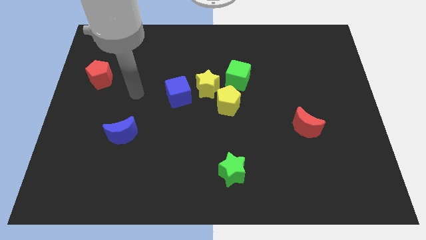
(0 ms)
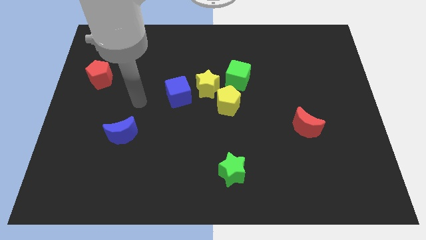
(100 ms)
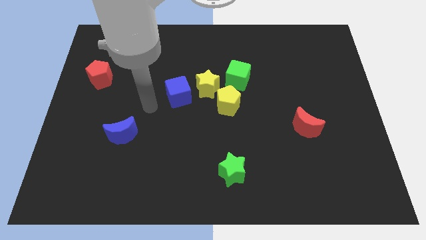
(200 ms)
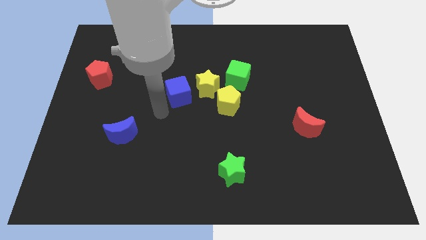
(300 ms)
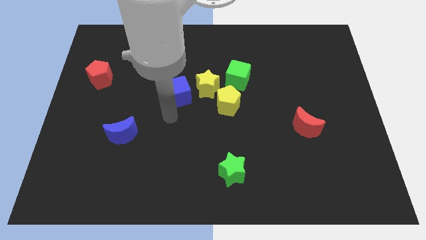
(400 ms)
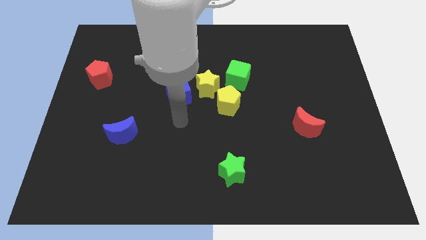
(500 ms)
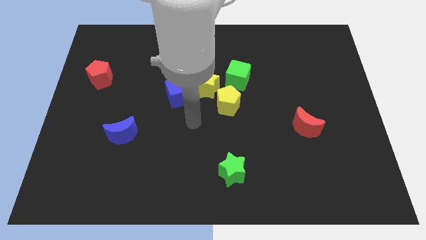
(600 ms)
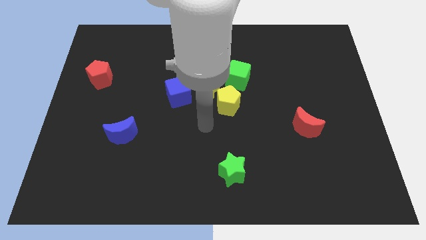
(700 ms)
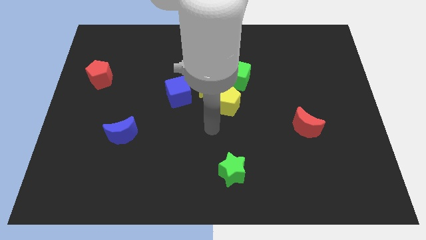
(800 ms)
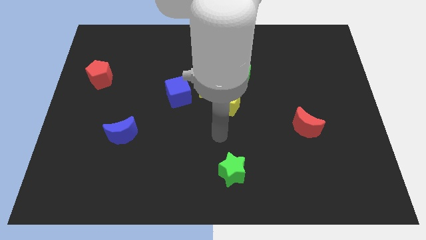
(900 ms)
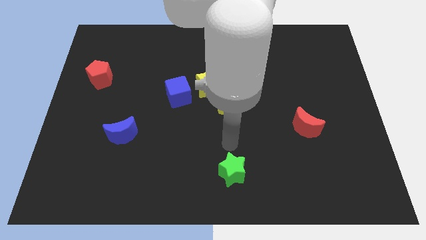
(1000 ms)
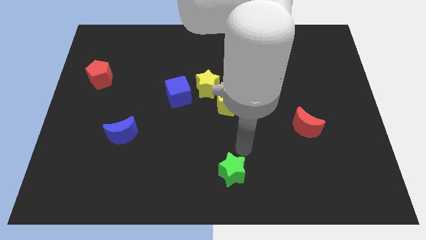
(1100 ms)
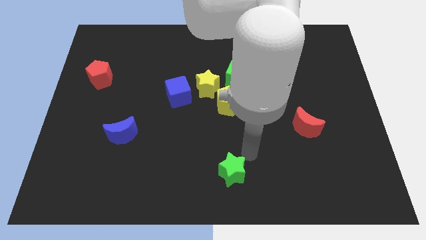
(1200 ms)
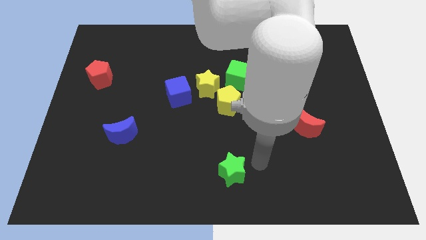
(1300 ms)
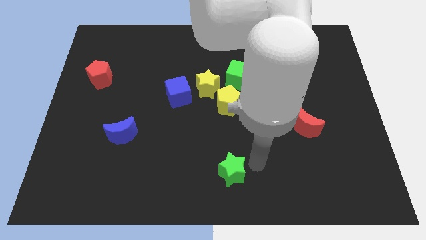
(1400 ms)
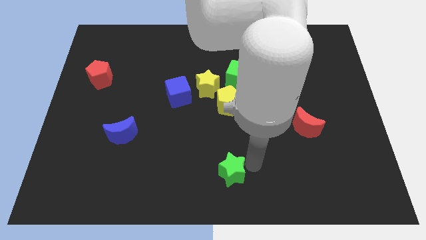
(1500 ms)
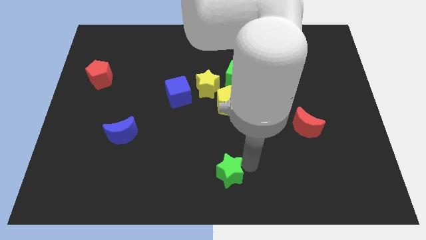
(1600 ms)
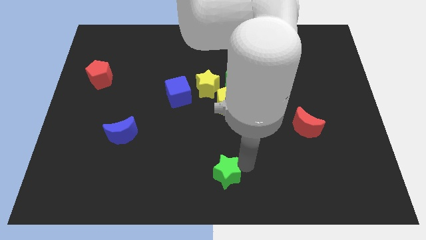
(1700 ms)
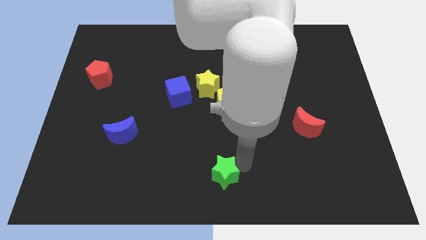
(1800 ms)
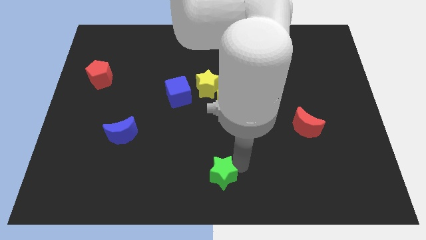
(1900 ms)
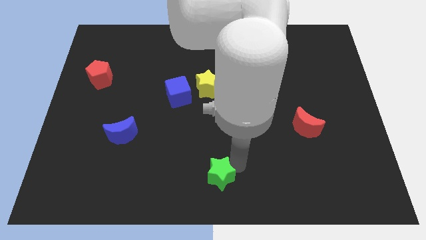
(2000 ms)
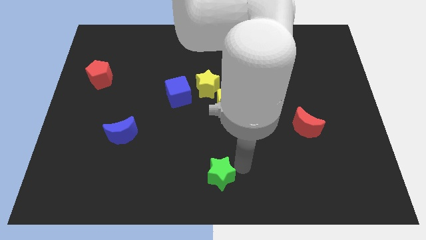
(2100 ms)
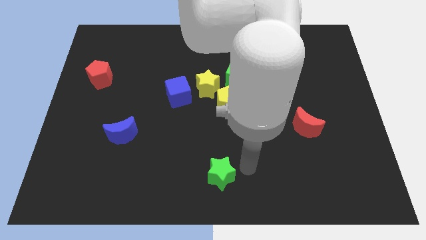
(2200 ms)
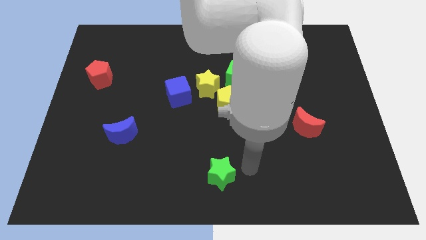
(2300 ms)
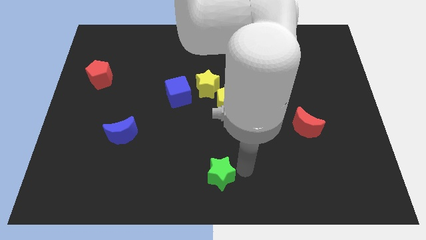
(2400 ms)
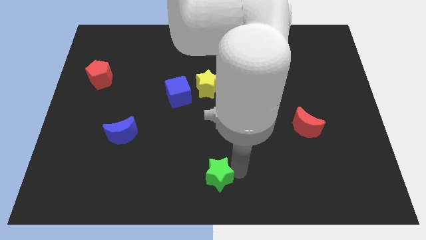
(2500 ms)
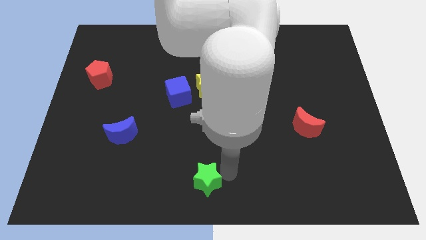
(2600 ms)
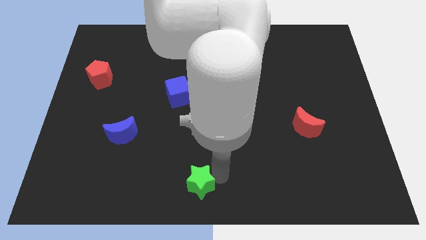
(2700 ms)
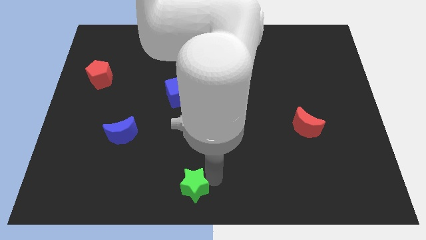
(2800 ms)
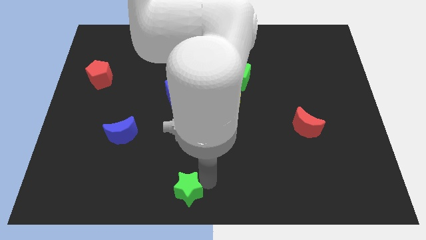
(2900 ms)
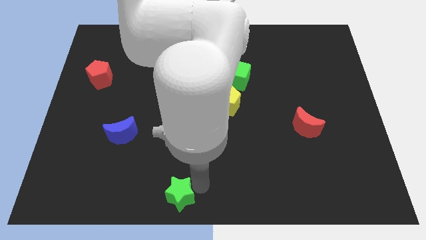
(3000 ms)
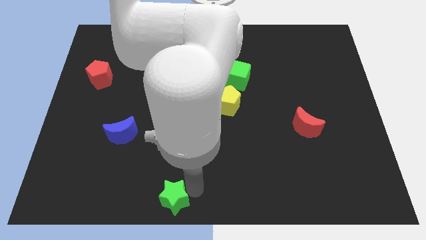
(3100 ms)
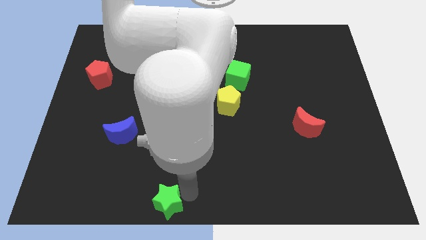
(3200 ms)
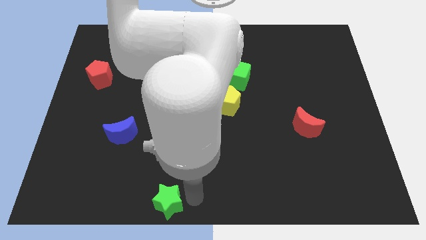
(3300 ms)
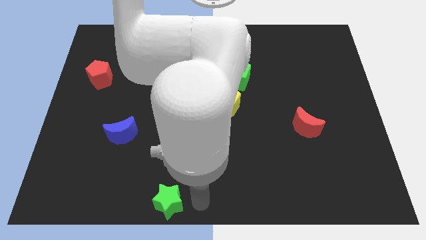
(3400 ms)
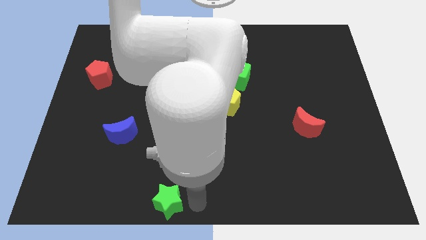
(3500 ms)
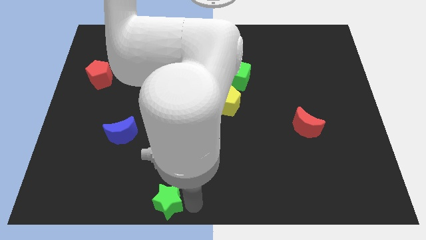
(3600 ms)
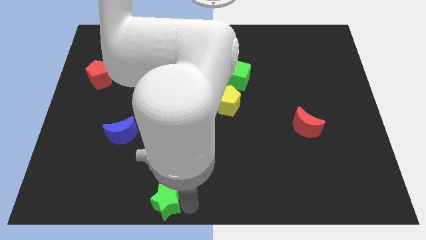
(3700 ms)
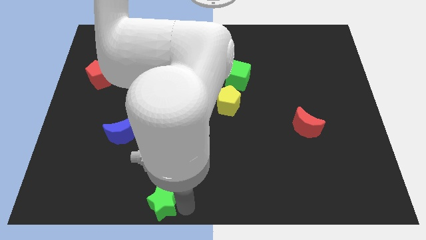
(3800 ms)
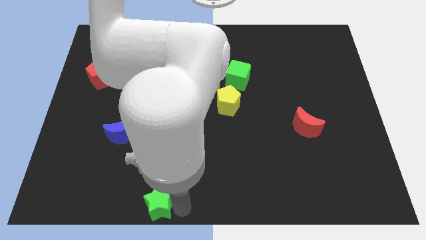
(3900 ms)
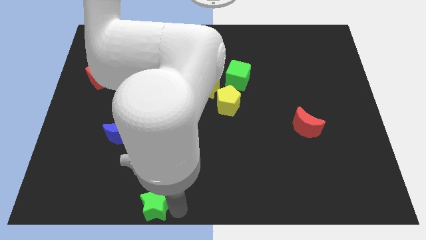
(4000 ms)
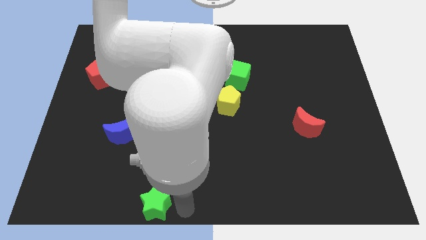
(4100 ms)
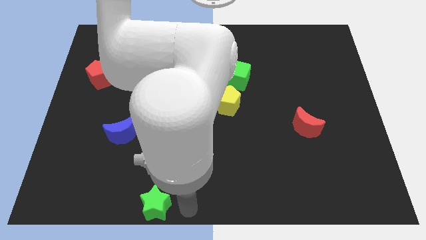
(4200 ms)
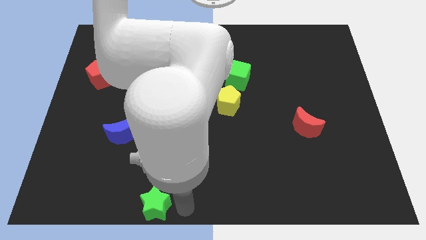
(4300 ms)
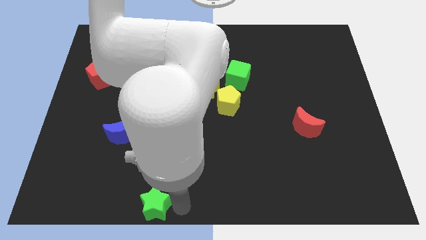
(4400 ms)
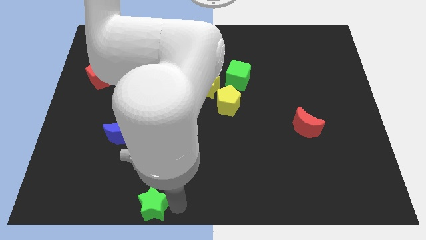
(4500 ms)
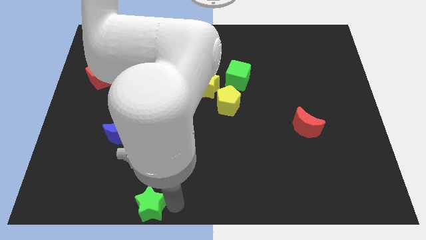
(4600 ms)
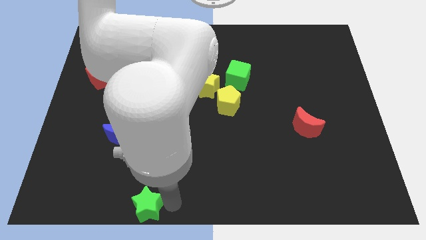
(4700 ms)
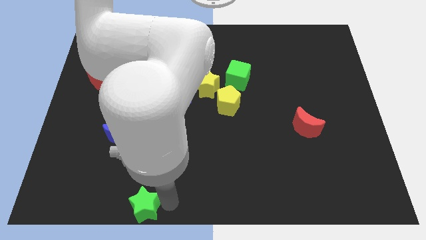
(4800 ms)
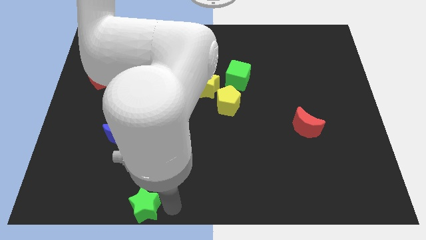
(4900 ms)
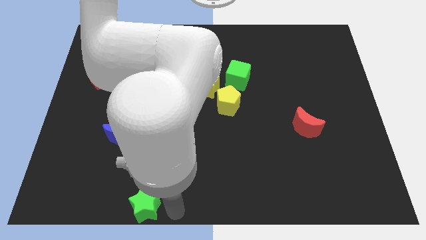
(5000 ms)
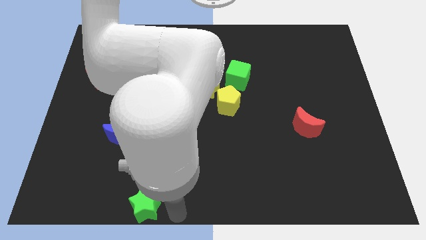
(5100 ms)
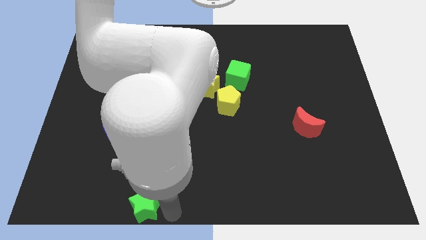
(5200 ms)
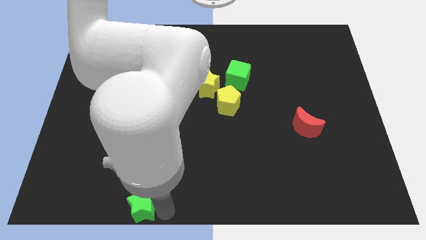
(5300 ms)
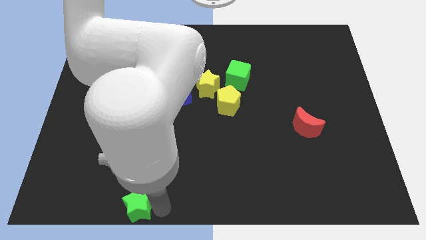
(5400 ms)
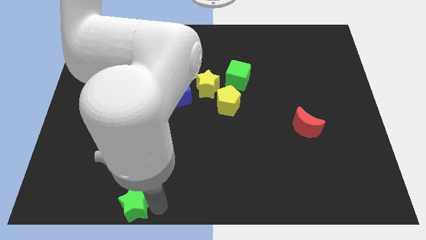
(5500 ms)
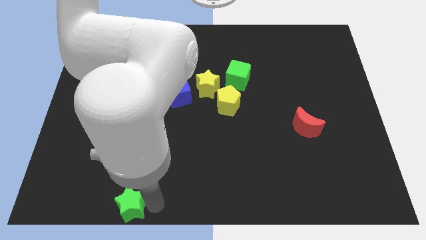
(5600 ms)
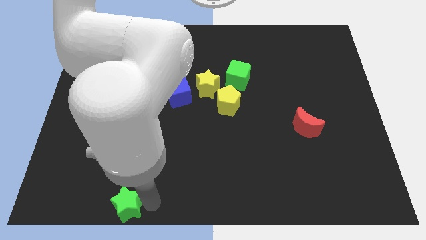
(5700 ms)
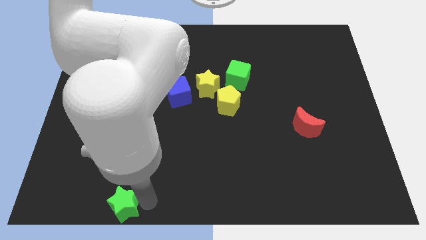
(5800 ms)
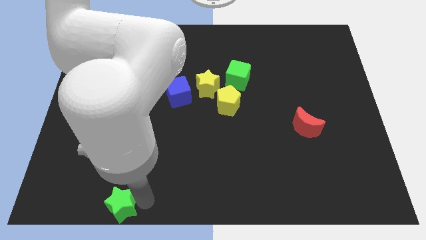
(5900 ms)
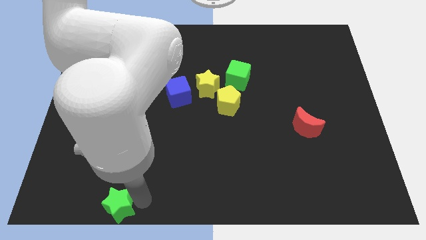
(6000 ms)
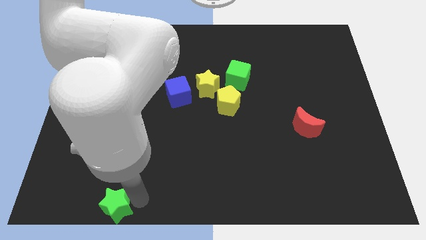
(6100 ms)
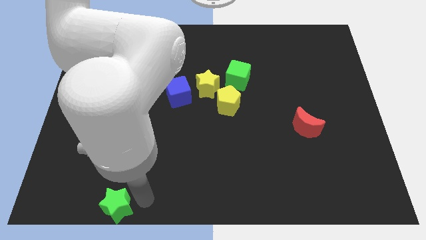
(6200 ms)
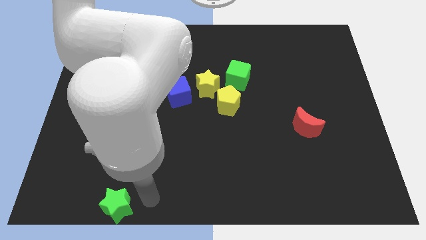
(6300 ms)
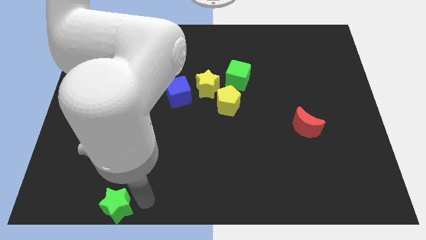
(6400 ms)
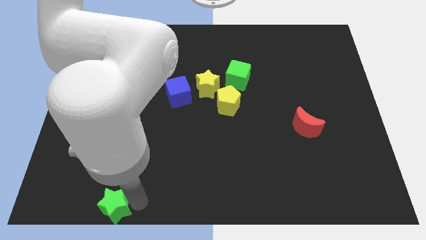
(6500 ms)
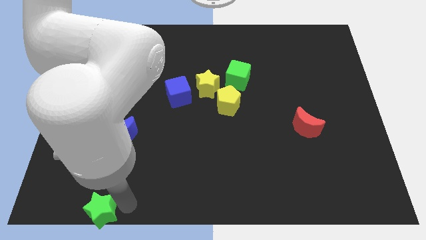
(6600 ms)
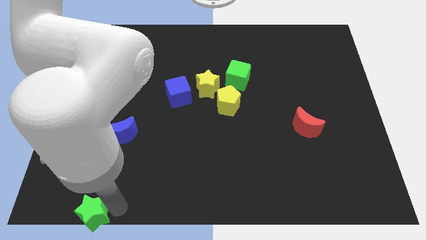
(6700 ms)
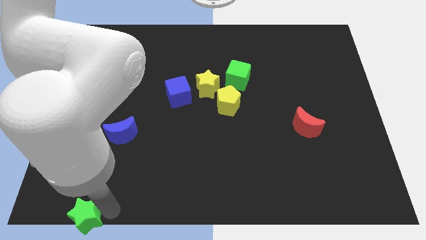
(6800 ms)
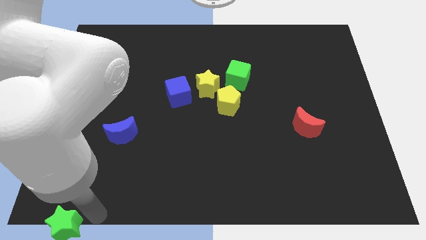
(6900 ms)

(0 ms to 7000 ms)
put the green star to the bottom left

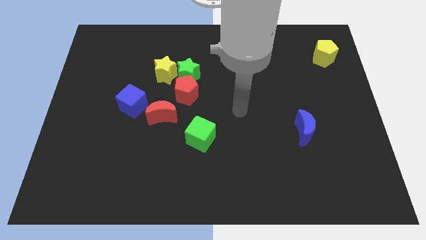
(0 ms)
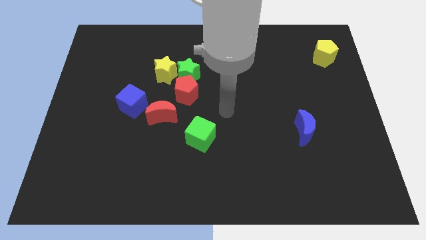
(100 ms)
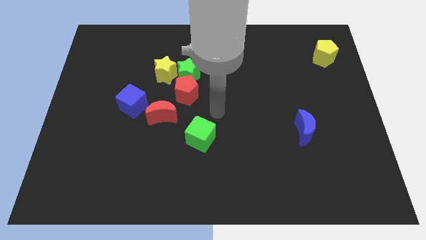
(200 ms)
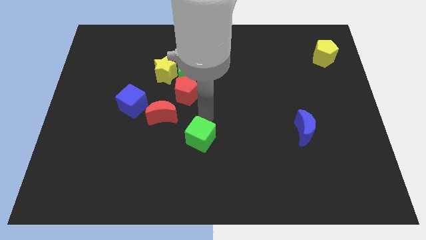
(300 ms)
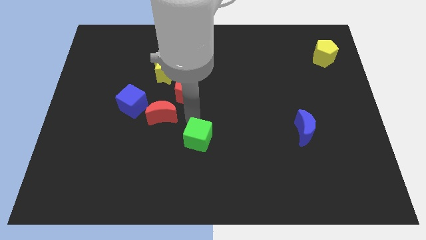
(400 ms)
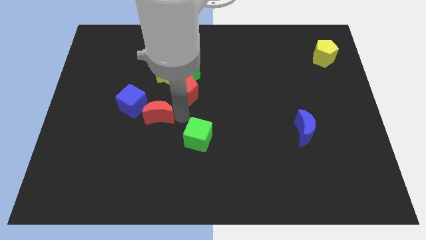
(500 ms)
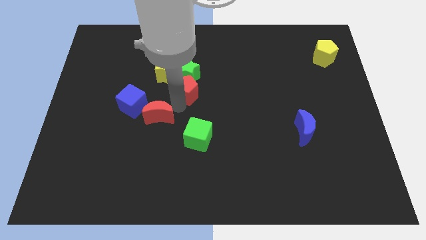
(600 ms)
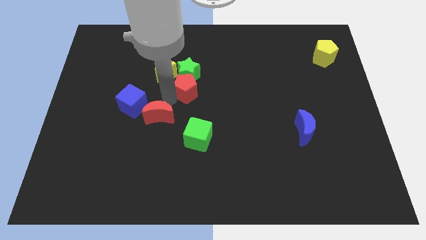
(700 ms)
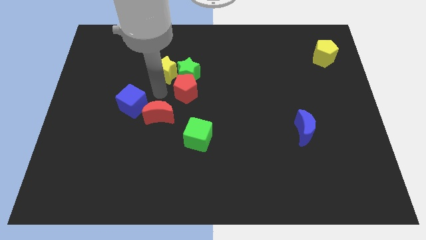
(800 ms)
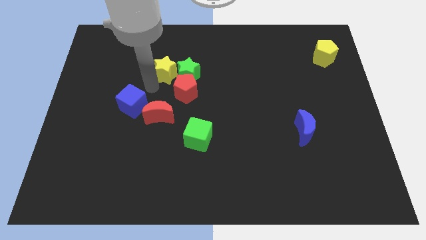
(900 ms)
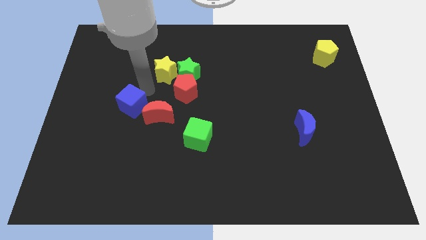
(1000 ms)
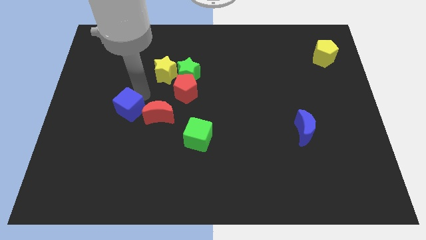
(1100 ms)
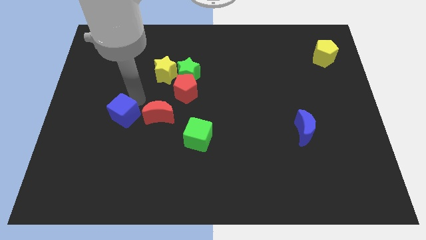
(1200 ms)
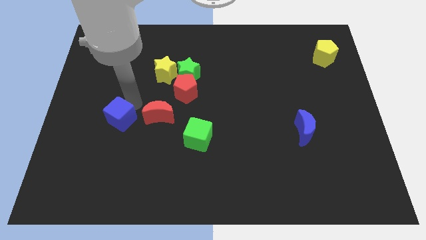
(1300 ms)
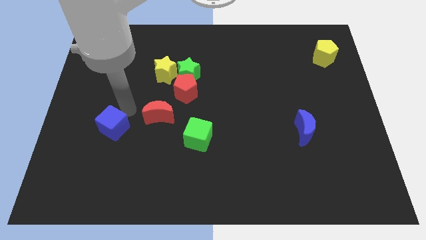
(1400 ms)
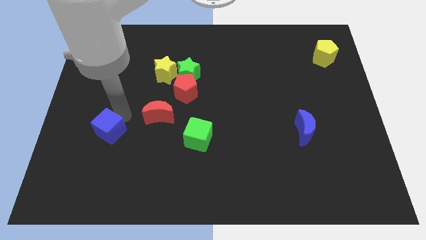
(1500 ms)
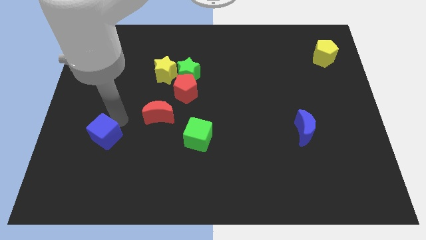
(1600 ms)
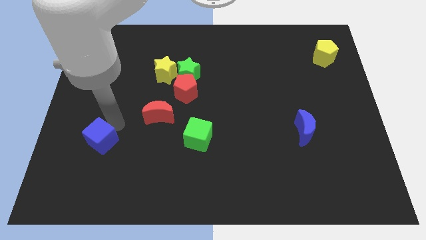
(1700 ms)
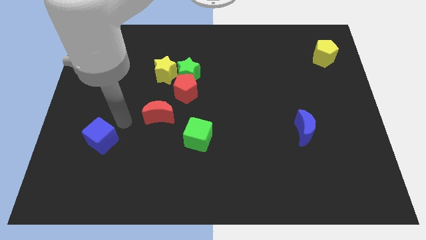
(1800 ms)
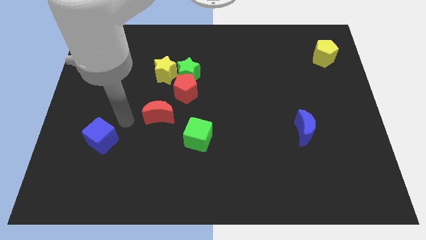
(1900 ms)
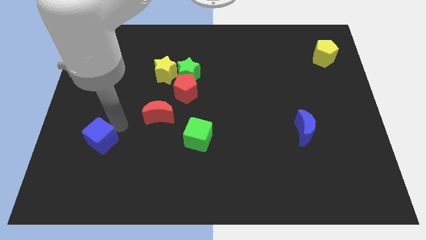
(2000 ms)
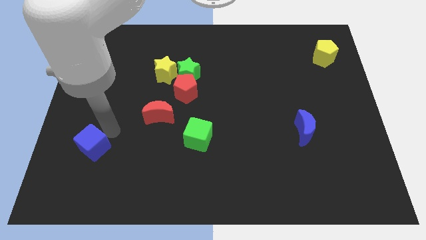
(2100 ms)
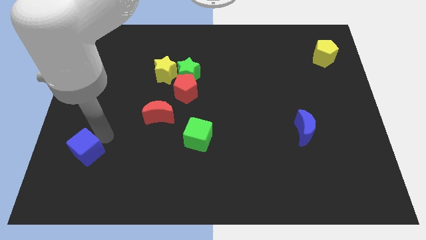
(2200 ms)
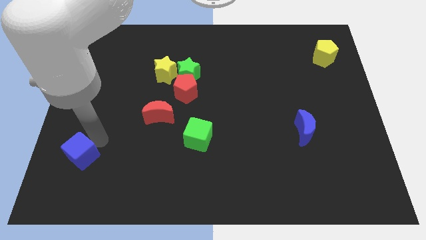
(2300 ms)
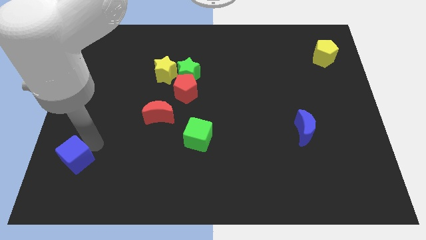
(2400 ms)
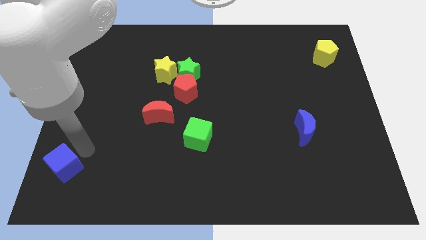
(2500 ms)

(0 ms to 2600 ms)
push the blue cube to the bottom left of the board
